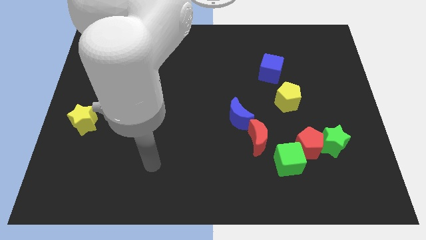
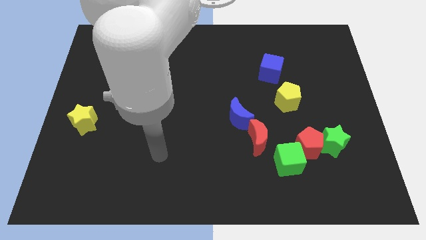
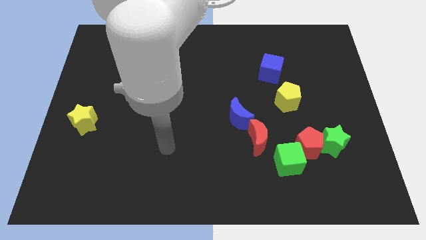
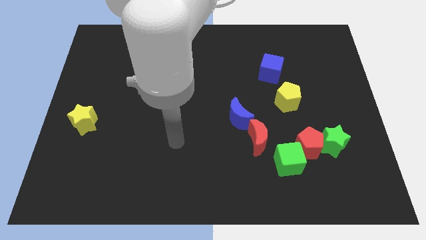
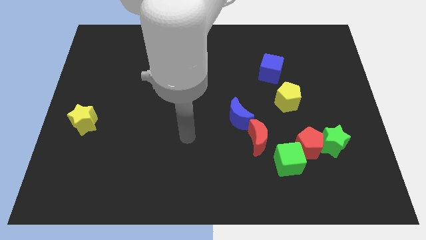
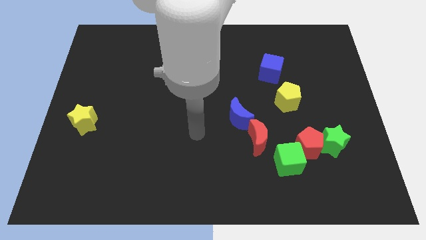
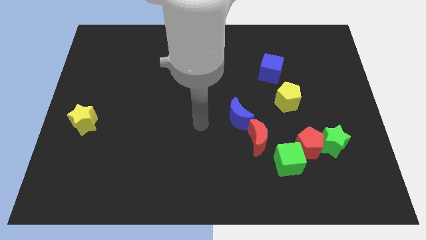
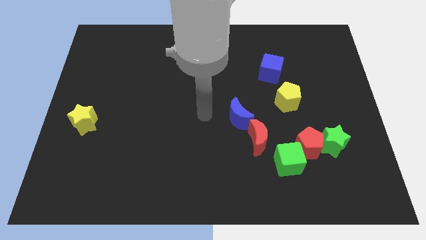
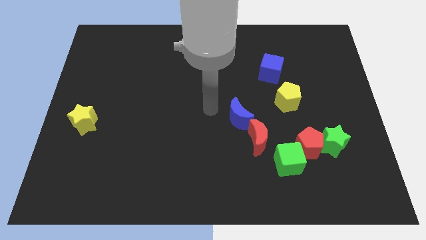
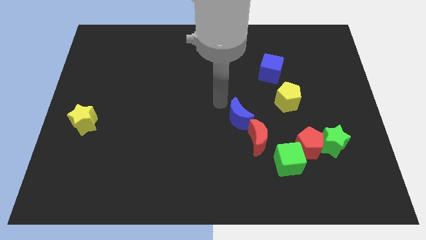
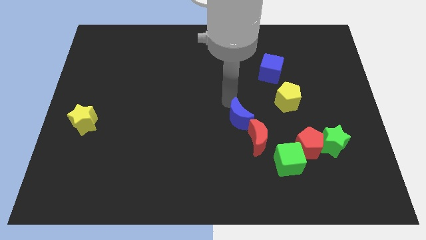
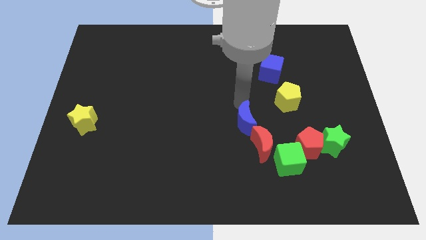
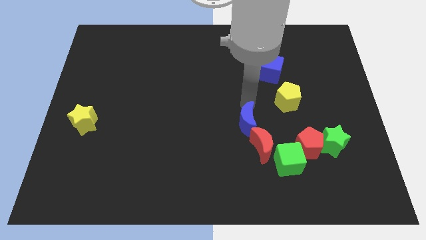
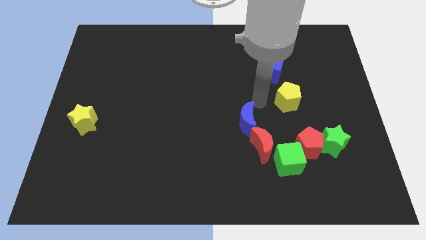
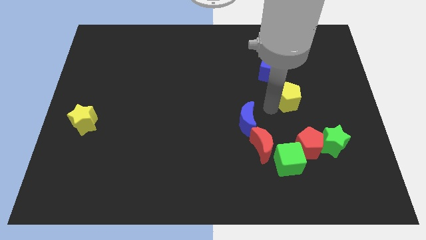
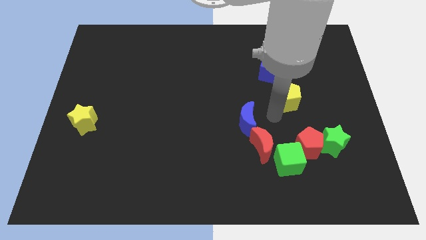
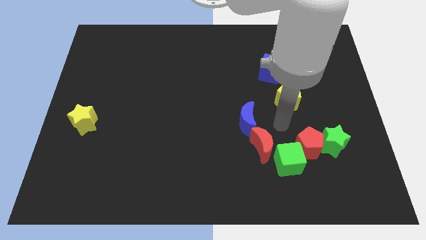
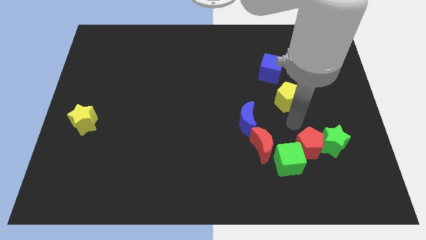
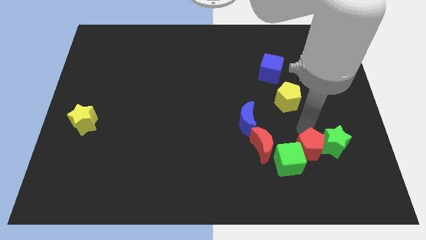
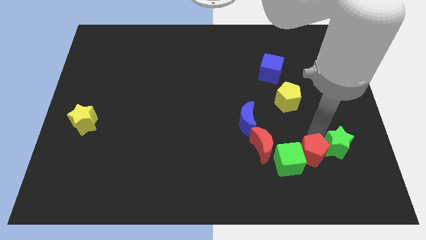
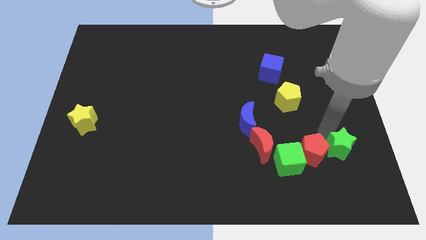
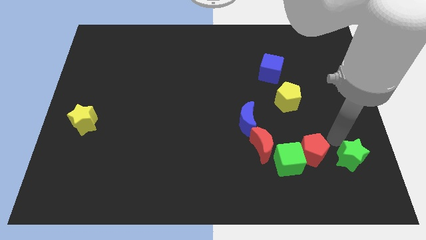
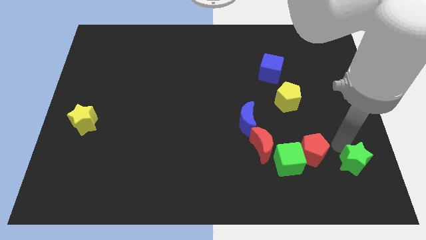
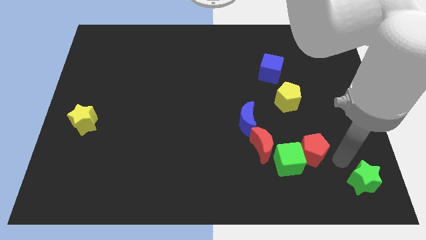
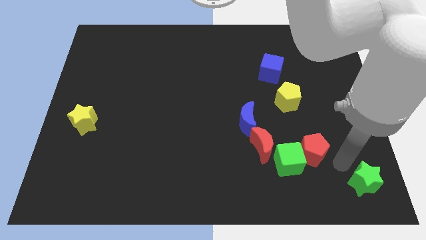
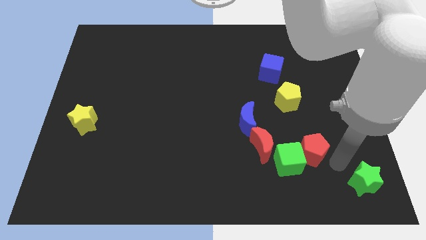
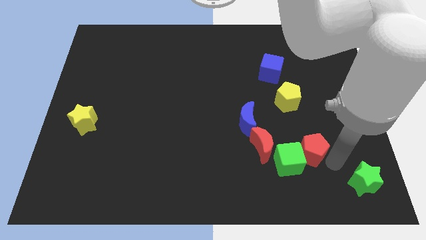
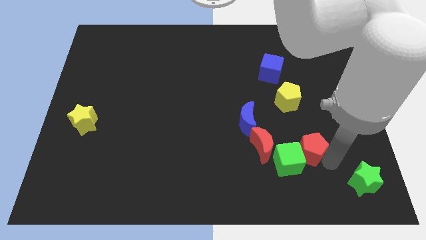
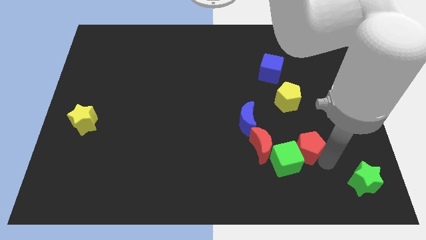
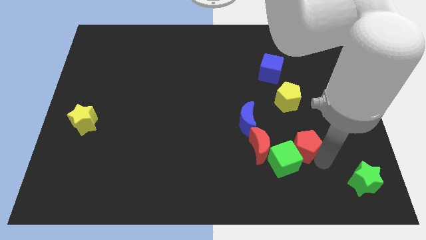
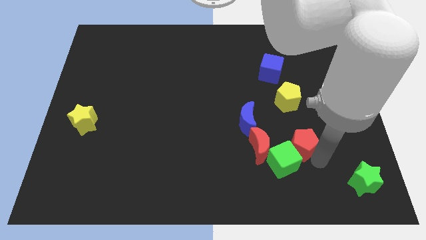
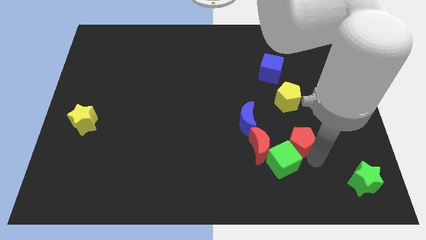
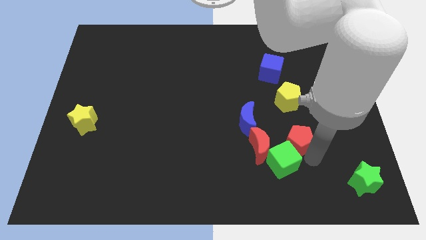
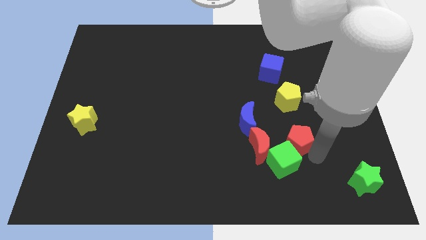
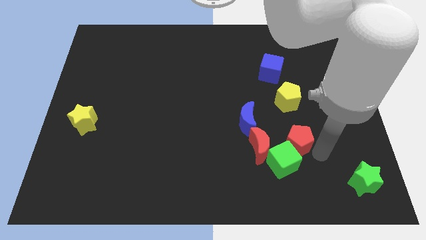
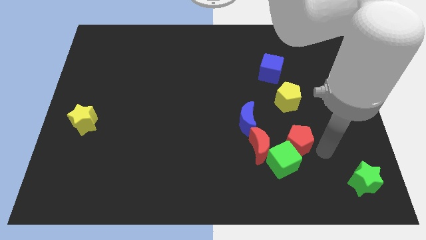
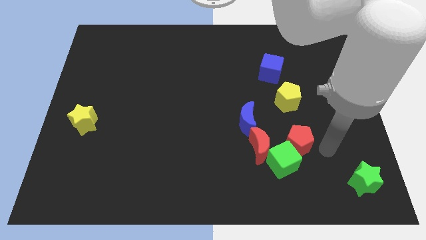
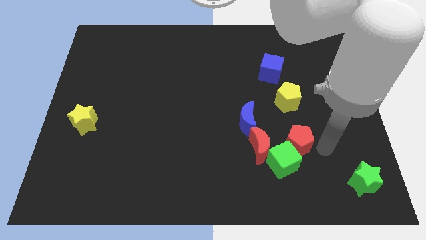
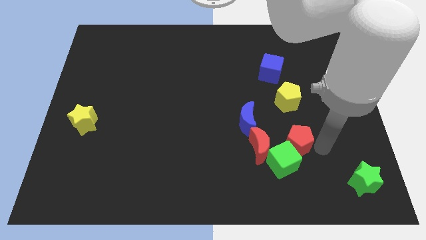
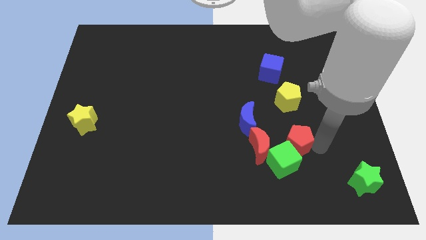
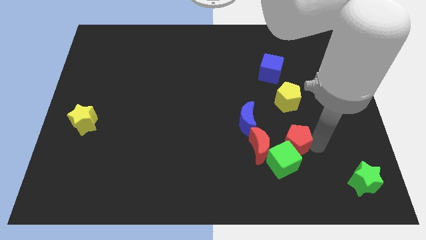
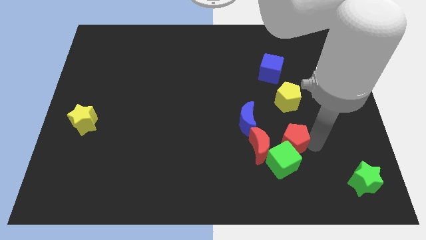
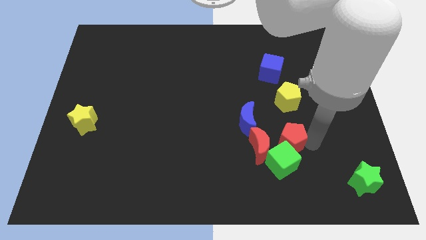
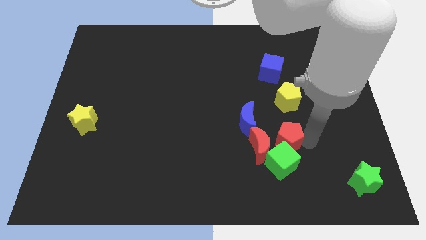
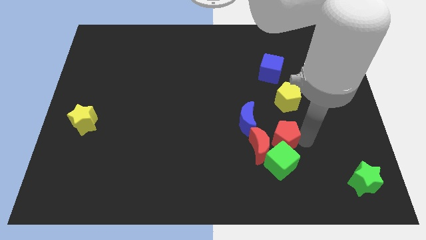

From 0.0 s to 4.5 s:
put the red pentagon to the red moon

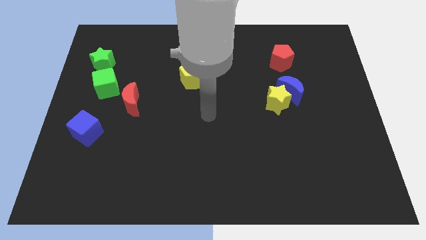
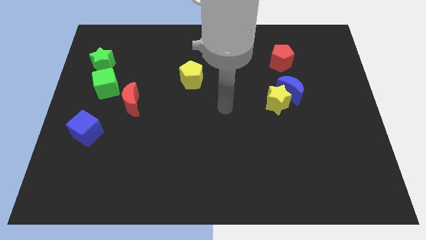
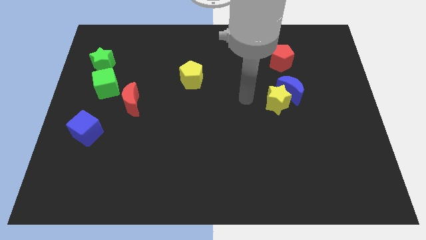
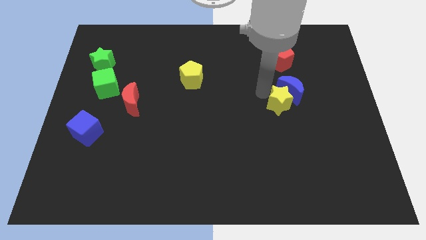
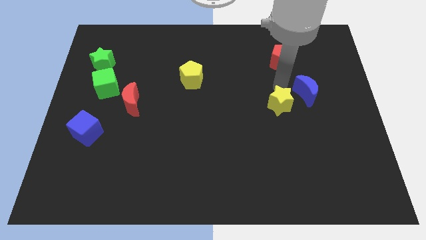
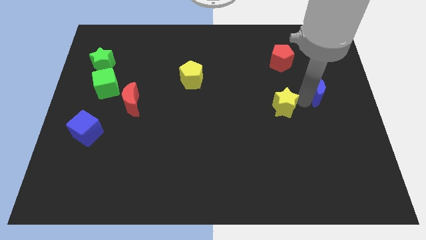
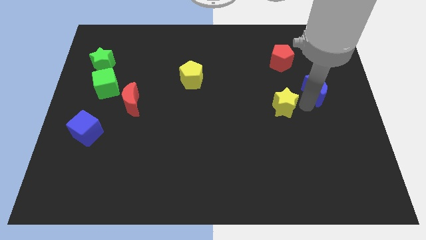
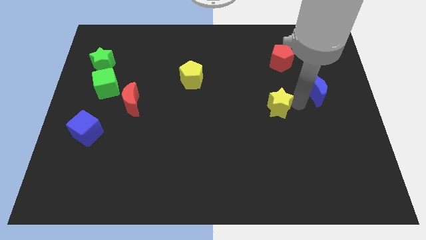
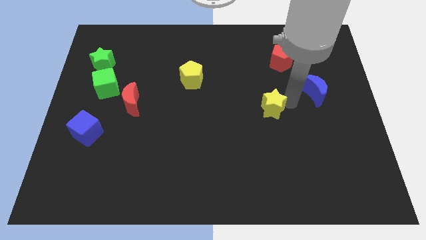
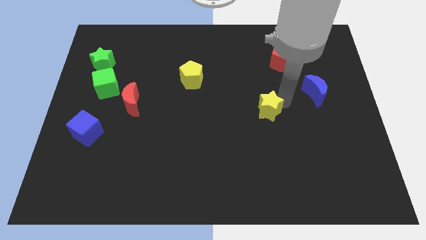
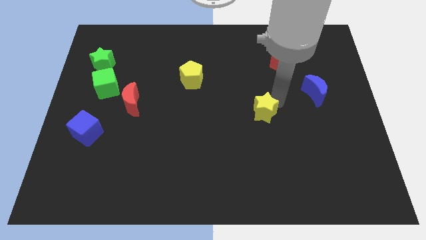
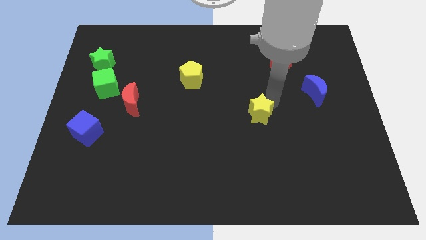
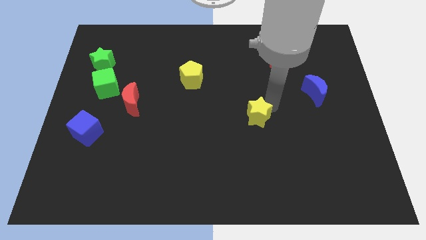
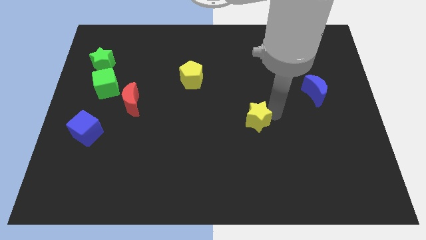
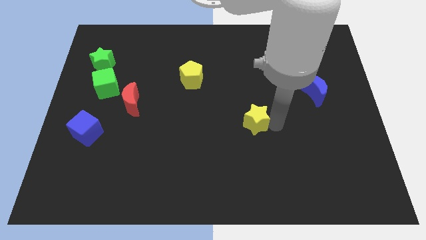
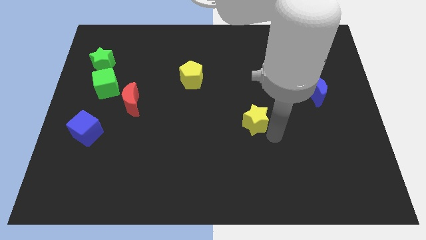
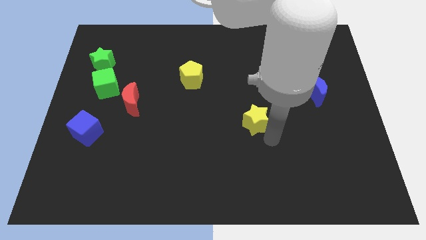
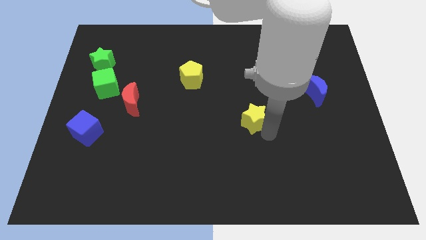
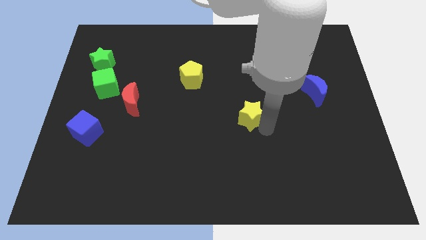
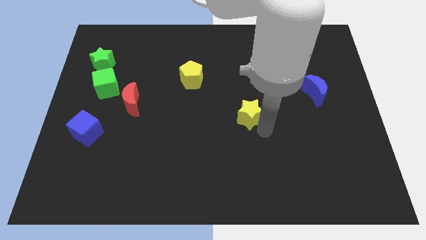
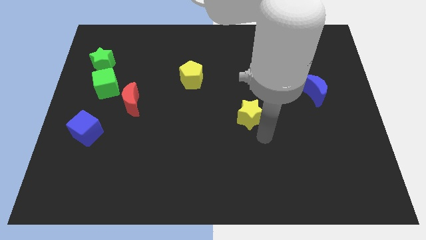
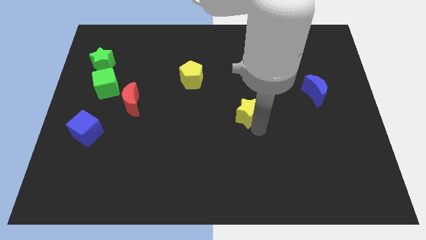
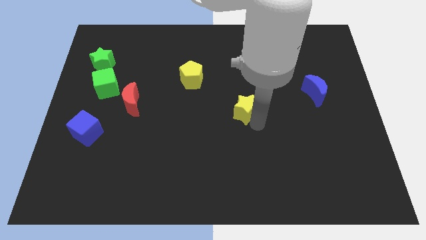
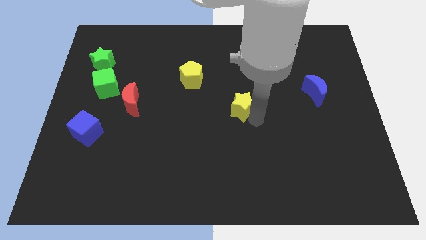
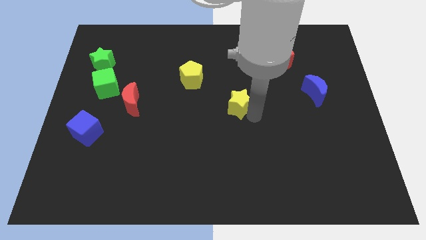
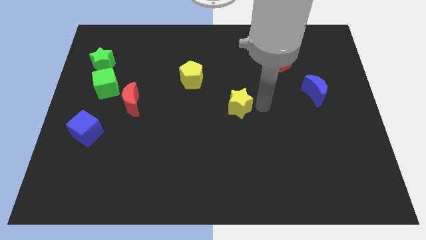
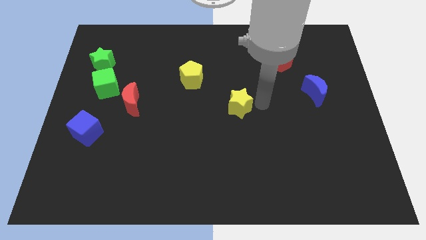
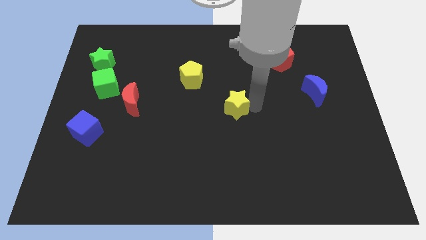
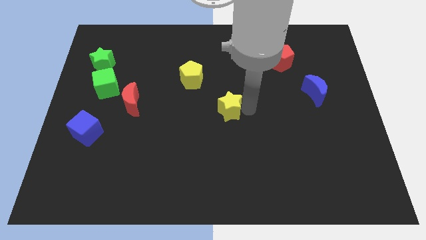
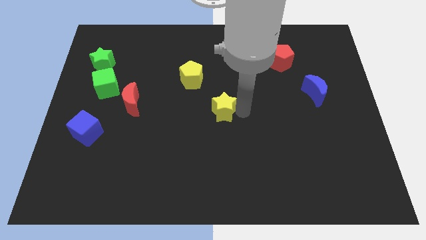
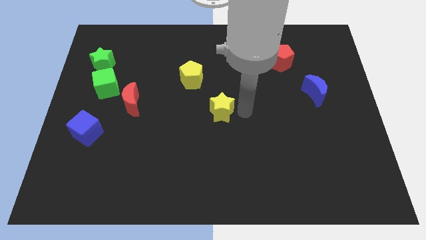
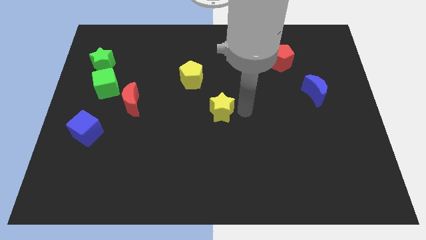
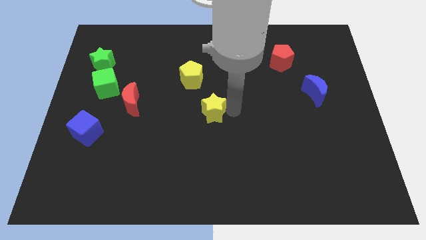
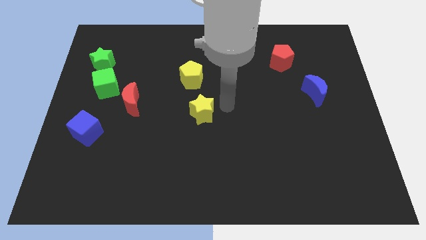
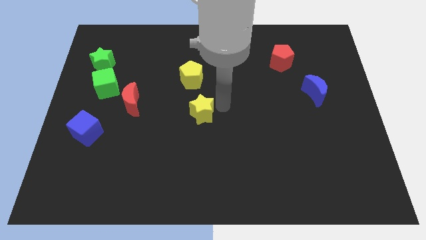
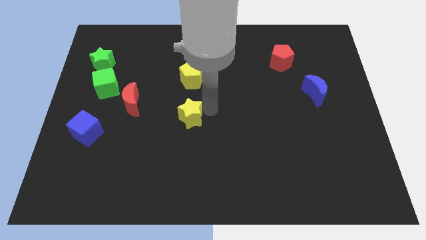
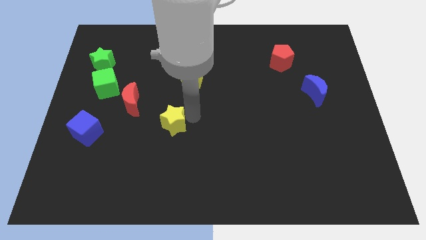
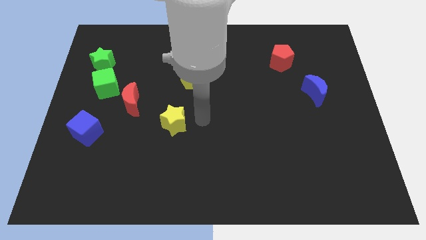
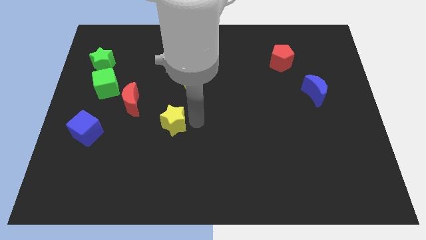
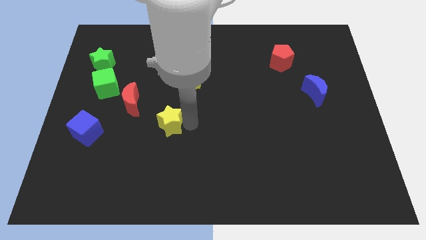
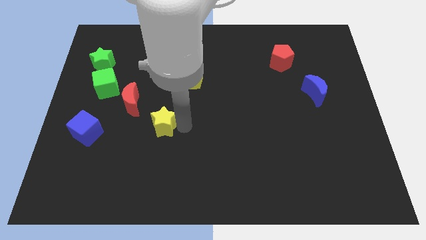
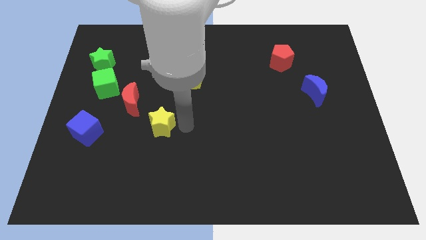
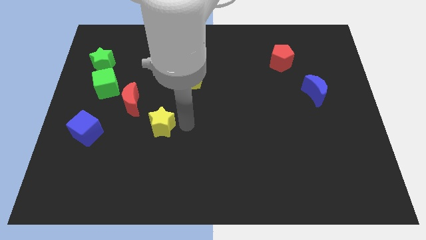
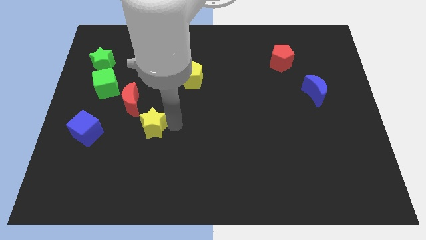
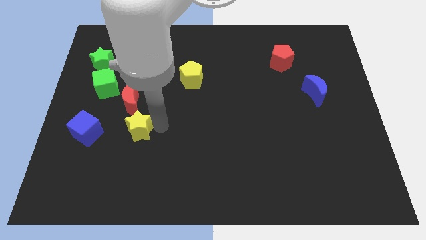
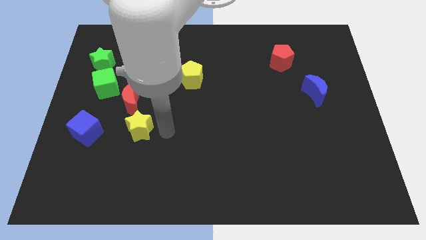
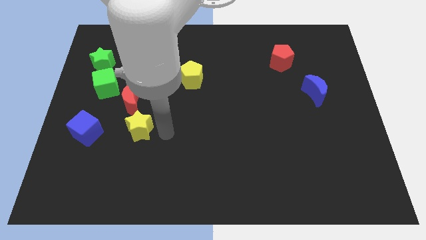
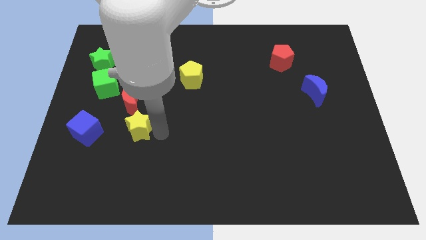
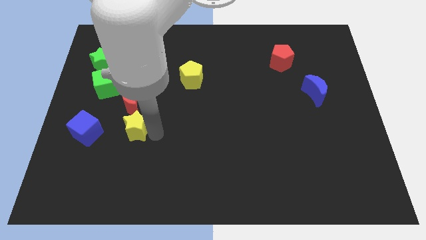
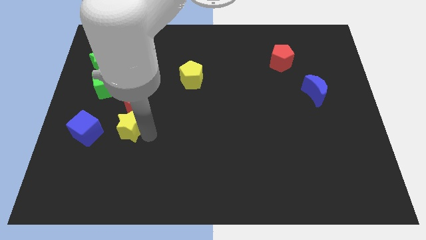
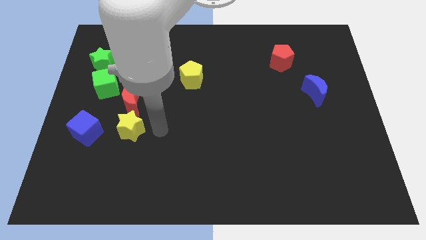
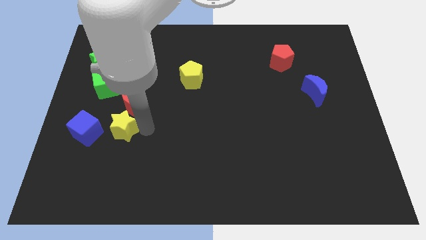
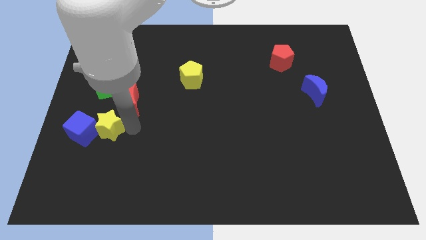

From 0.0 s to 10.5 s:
put the yellow star to the blue cube
